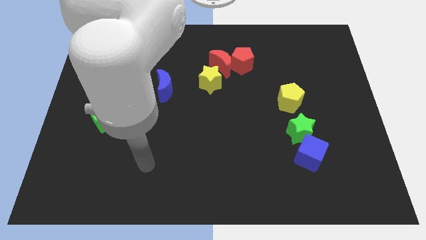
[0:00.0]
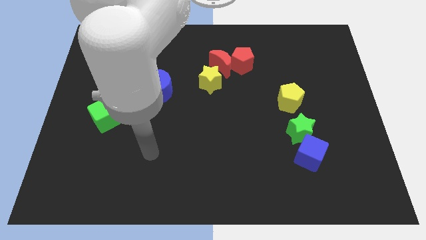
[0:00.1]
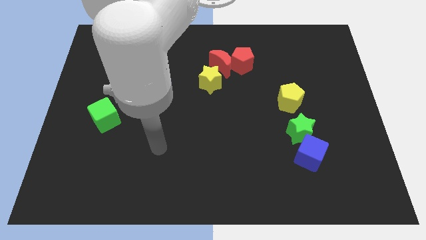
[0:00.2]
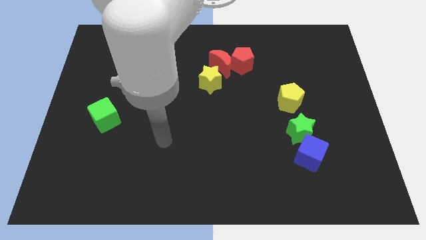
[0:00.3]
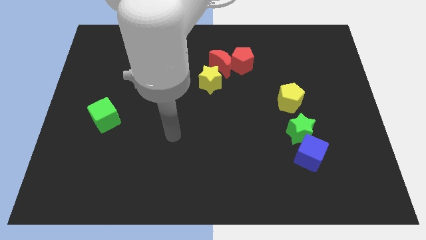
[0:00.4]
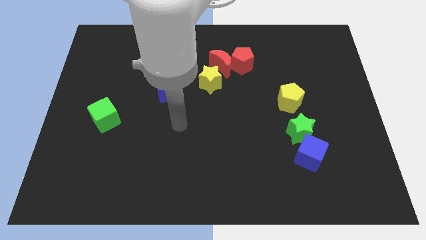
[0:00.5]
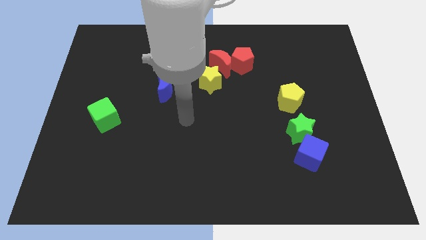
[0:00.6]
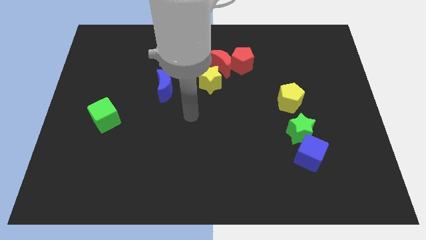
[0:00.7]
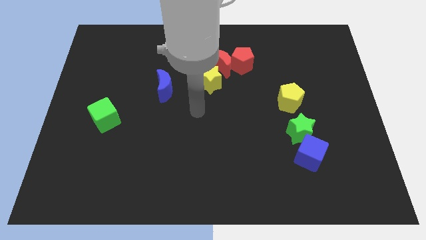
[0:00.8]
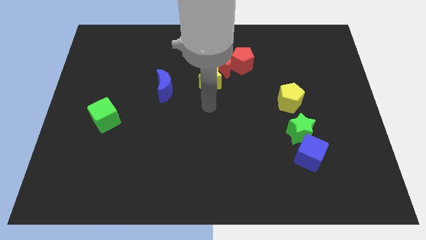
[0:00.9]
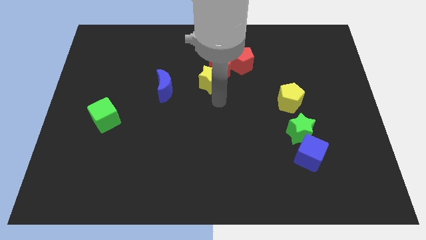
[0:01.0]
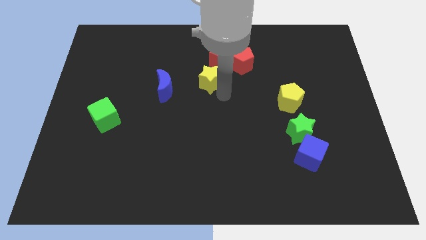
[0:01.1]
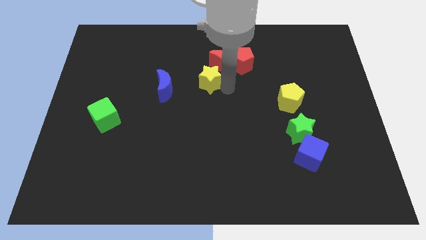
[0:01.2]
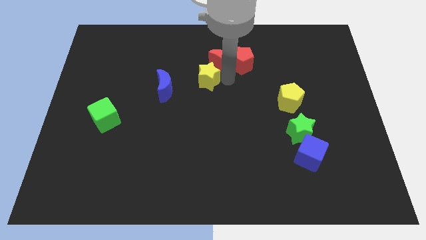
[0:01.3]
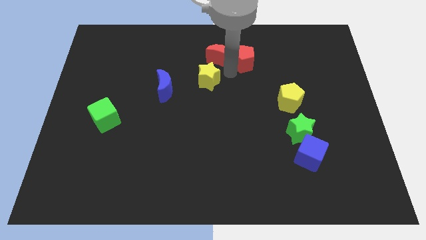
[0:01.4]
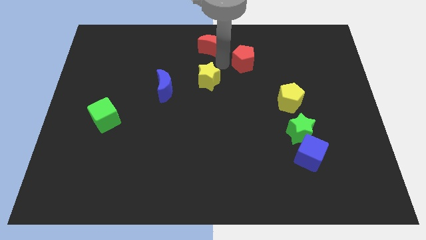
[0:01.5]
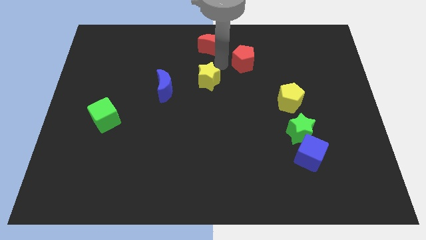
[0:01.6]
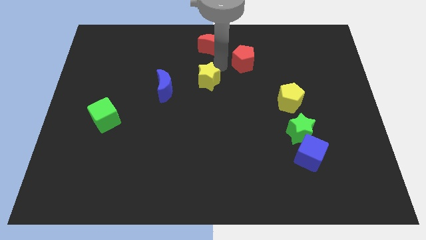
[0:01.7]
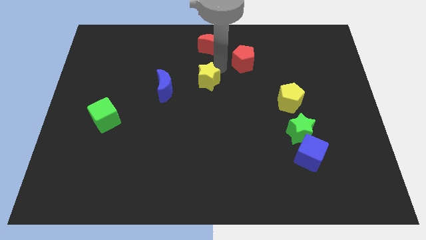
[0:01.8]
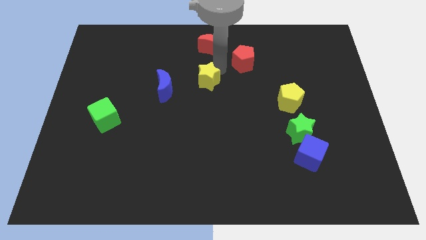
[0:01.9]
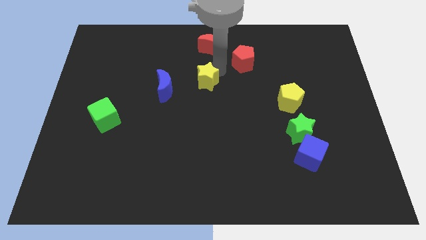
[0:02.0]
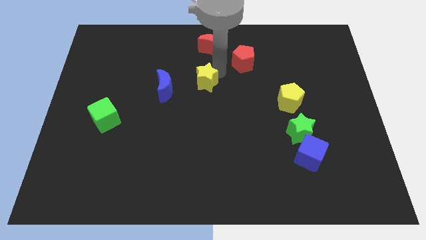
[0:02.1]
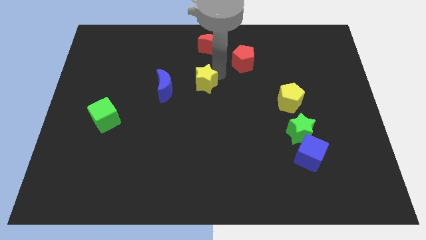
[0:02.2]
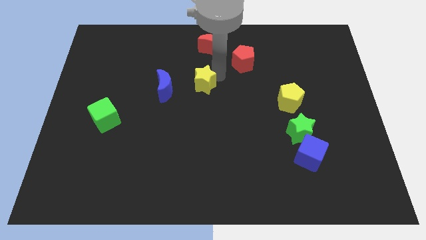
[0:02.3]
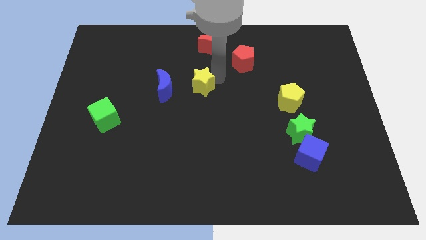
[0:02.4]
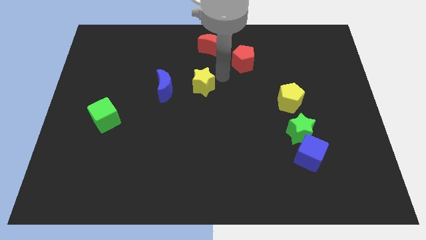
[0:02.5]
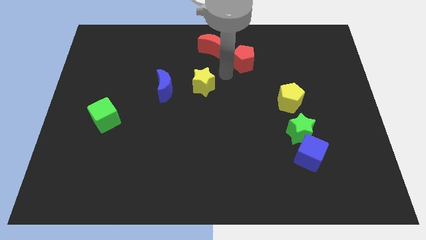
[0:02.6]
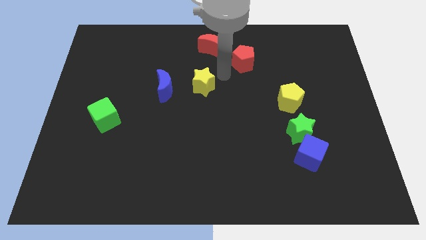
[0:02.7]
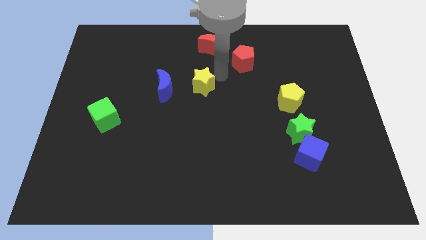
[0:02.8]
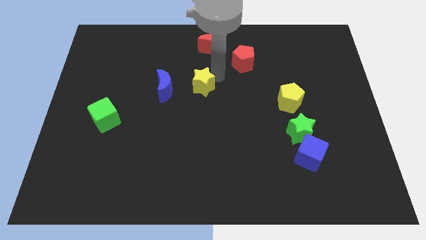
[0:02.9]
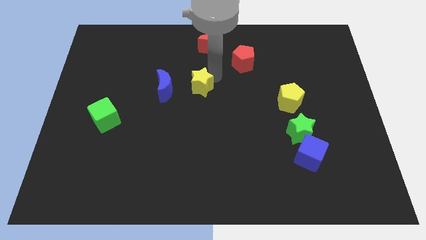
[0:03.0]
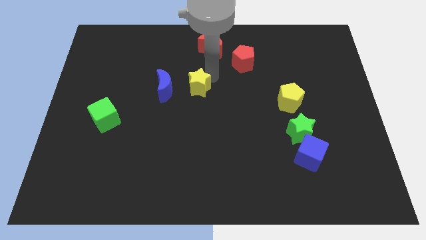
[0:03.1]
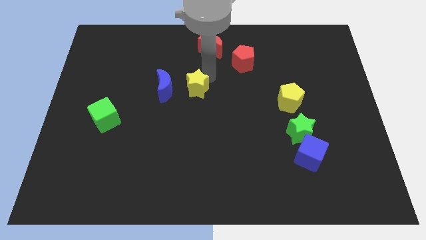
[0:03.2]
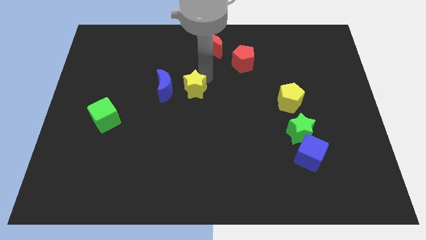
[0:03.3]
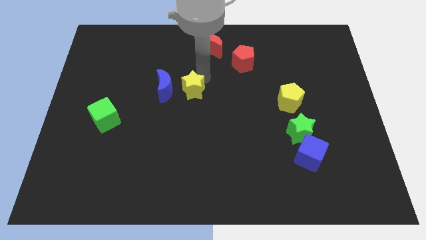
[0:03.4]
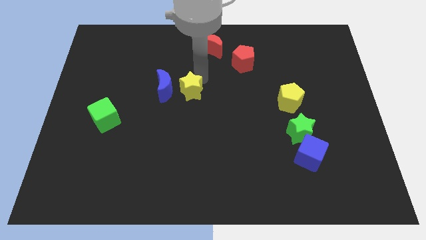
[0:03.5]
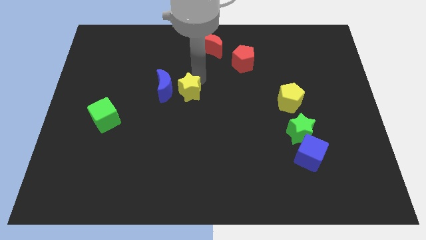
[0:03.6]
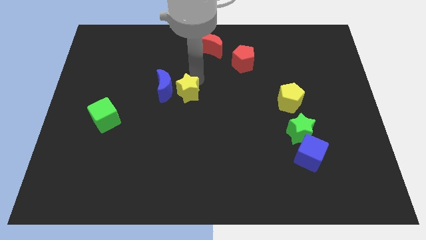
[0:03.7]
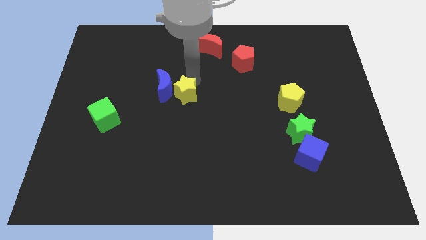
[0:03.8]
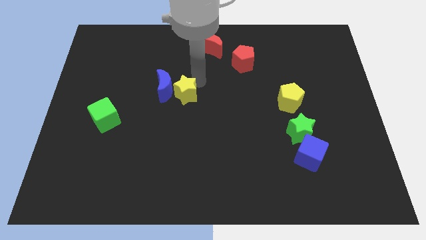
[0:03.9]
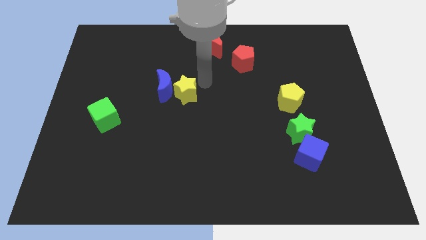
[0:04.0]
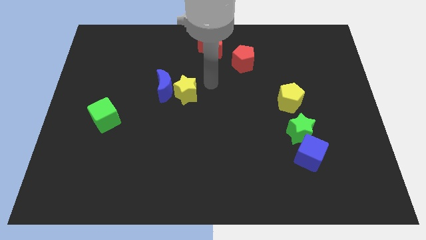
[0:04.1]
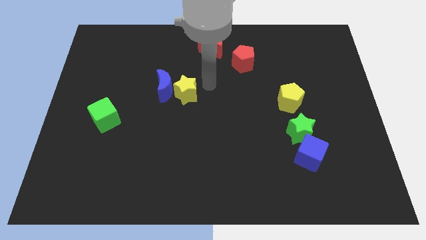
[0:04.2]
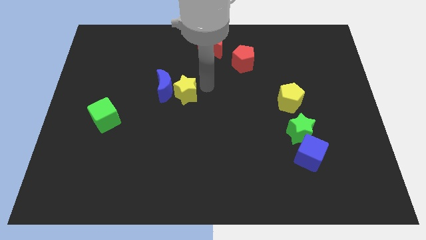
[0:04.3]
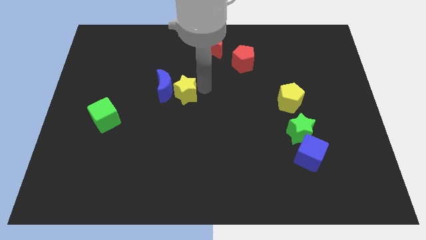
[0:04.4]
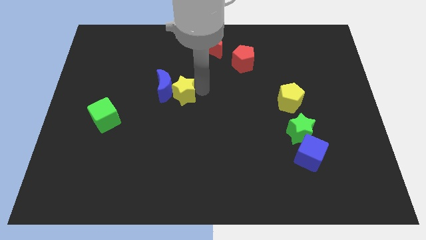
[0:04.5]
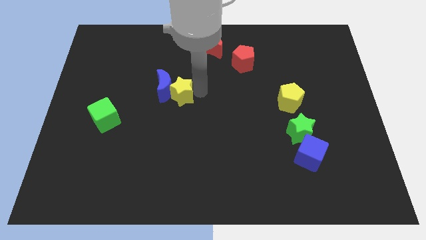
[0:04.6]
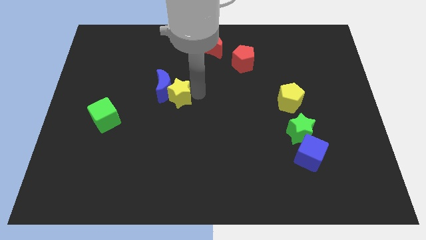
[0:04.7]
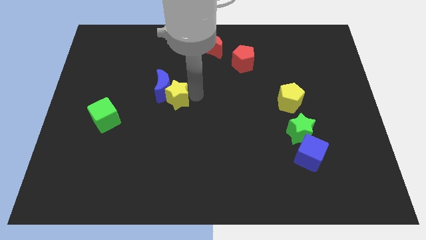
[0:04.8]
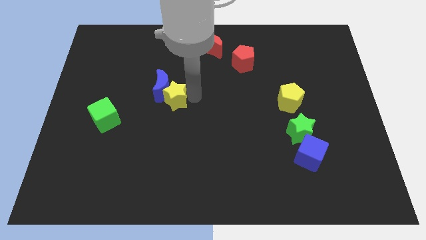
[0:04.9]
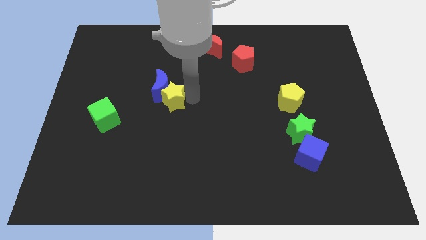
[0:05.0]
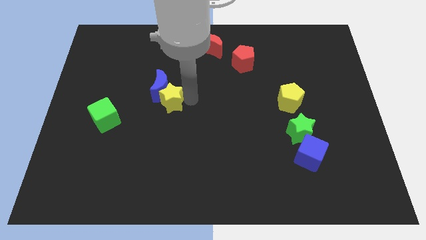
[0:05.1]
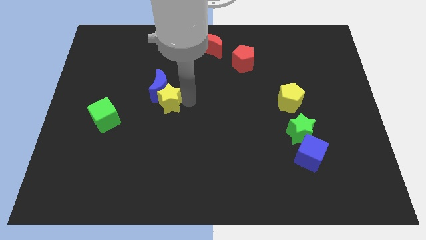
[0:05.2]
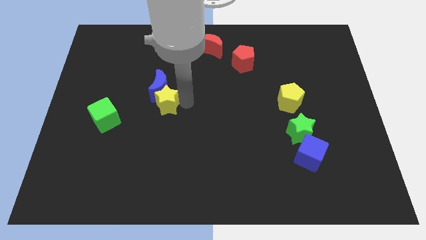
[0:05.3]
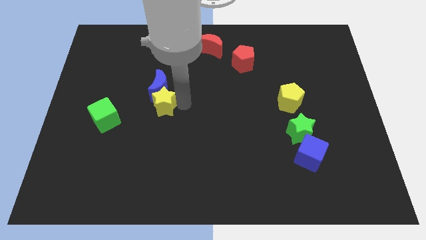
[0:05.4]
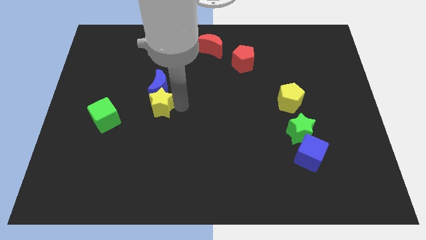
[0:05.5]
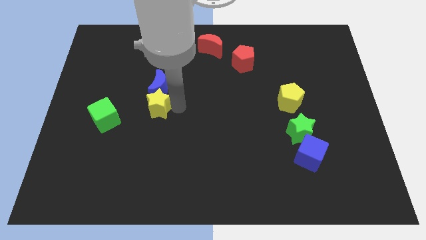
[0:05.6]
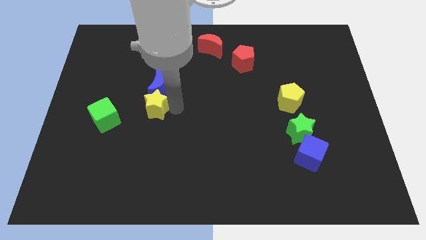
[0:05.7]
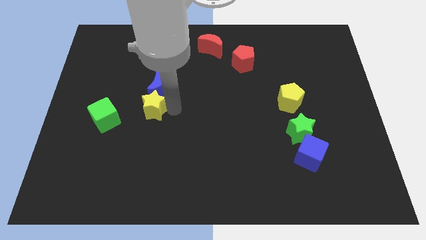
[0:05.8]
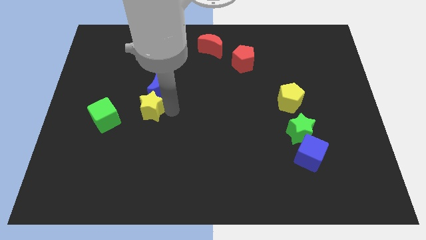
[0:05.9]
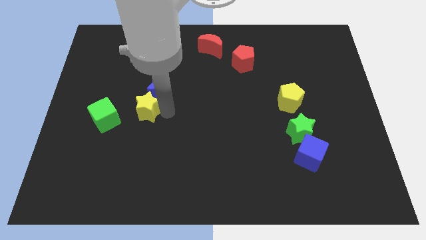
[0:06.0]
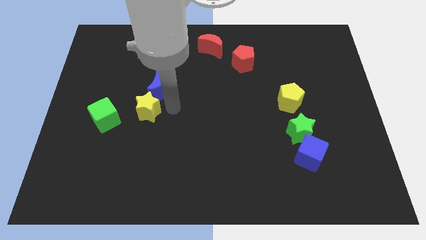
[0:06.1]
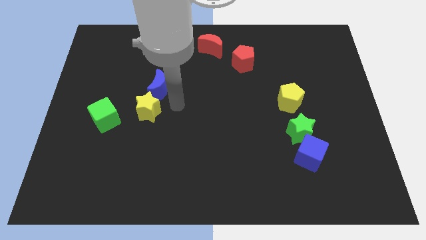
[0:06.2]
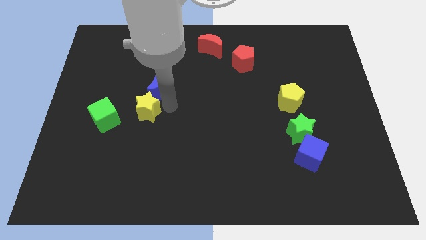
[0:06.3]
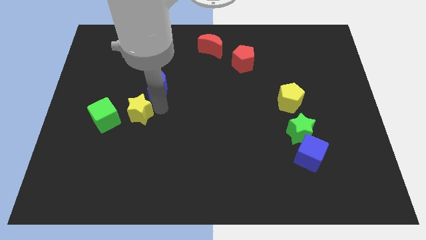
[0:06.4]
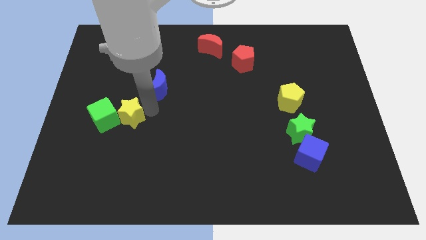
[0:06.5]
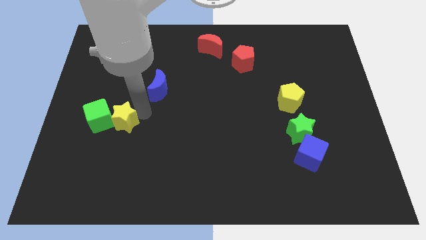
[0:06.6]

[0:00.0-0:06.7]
put the yellow star to the green cube

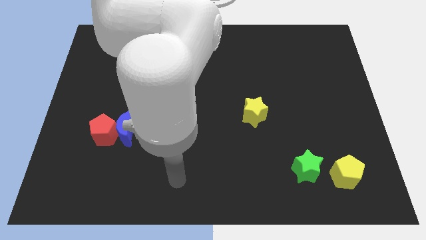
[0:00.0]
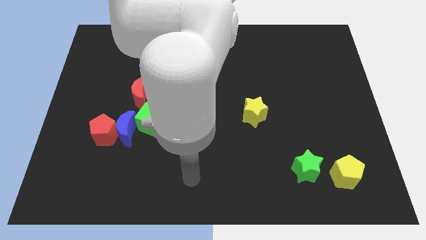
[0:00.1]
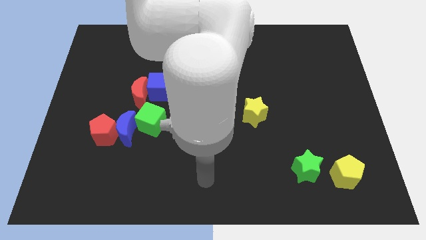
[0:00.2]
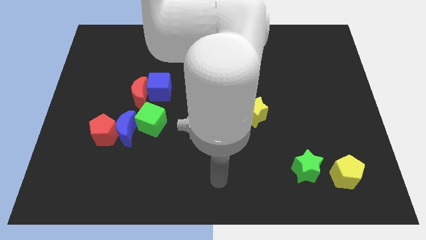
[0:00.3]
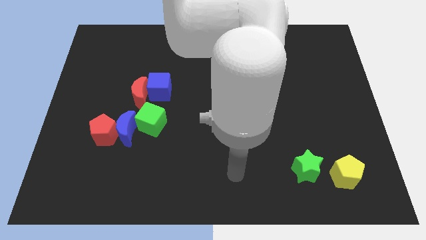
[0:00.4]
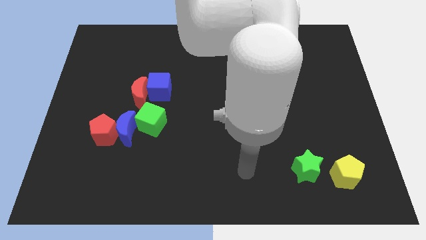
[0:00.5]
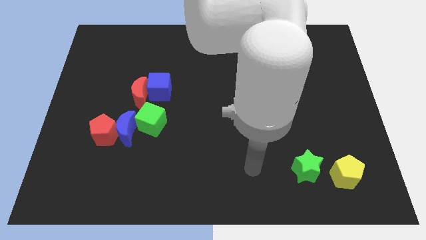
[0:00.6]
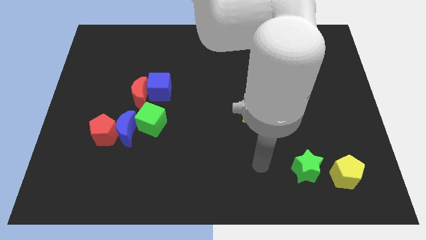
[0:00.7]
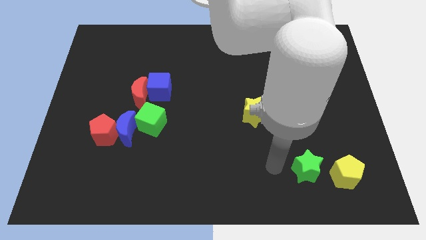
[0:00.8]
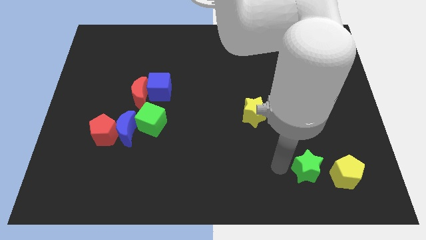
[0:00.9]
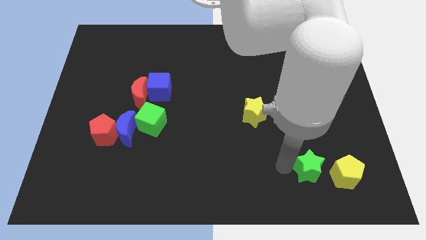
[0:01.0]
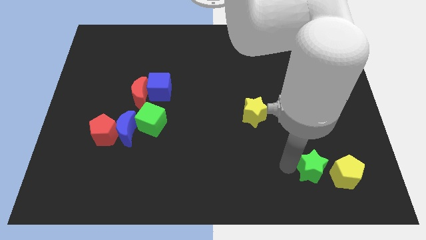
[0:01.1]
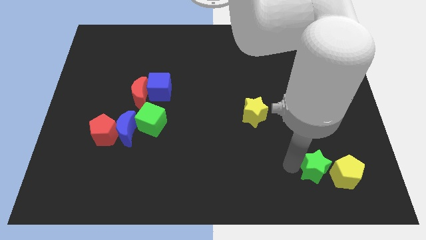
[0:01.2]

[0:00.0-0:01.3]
slide the green star to the yellow pentagon
